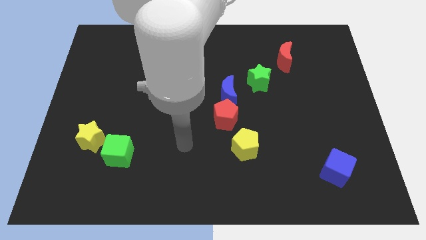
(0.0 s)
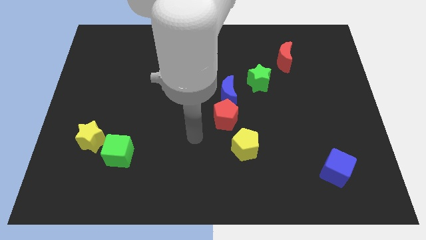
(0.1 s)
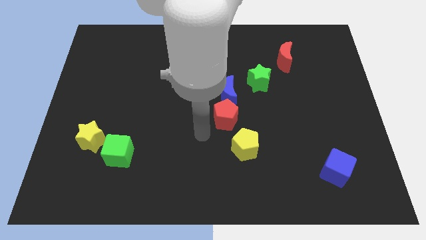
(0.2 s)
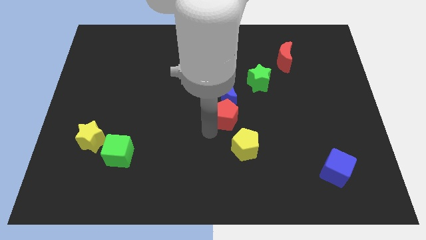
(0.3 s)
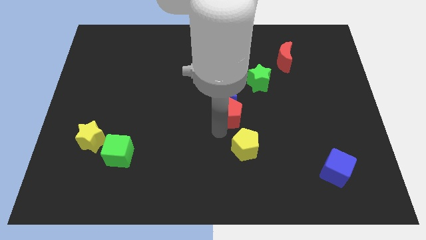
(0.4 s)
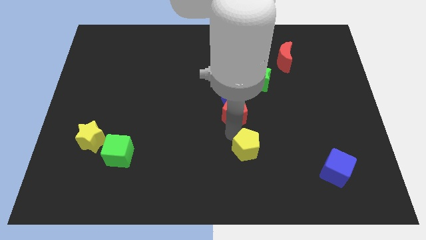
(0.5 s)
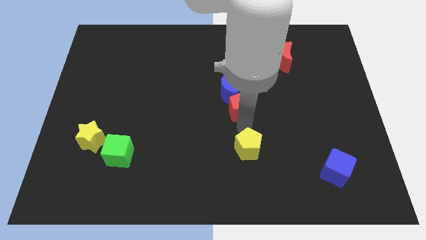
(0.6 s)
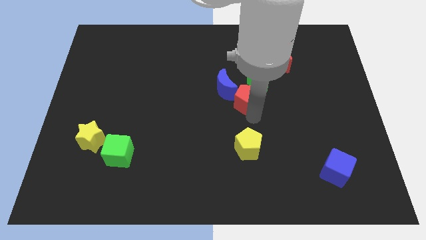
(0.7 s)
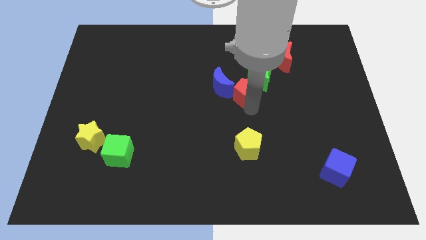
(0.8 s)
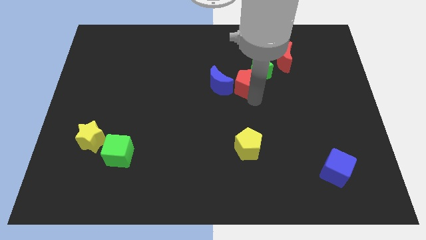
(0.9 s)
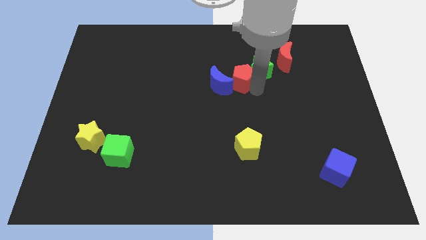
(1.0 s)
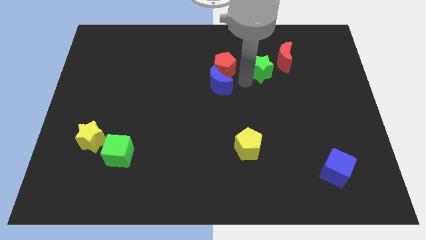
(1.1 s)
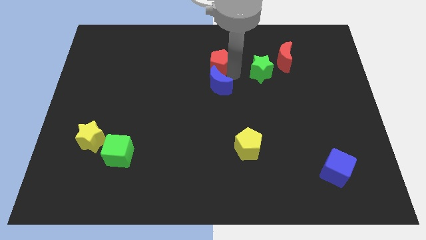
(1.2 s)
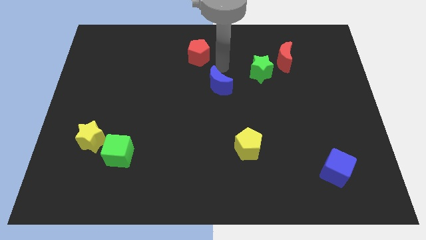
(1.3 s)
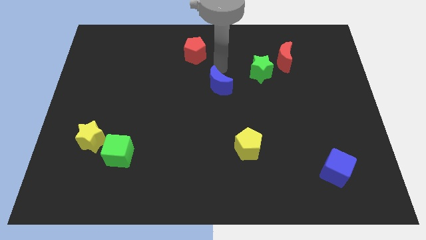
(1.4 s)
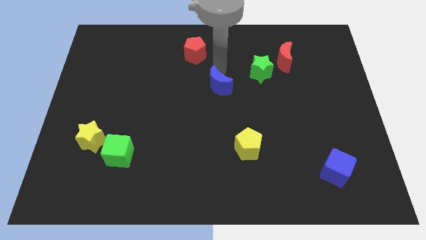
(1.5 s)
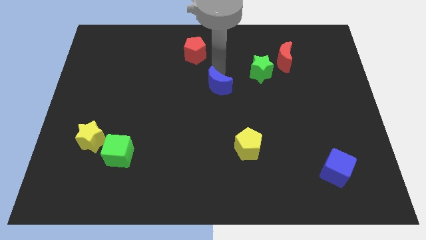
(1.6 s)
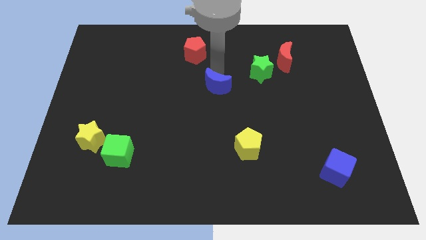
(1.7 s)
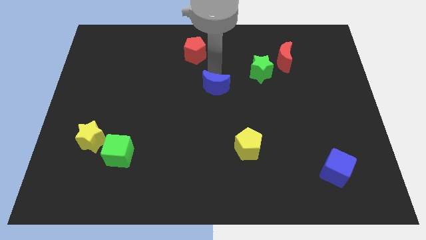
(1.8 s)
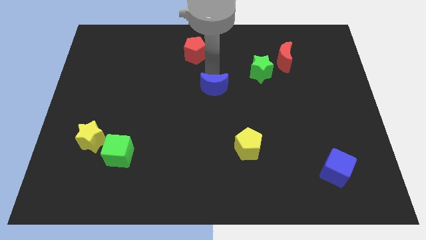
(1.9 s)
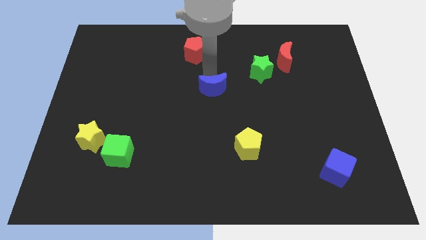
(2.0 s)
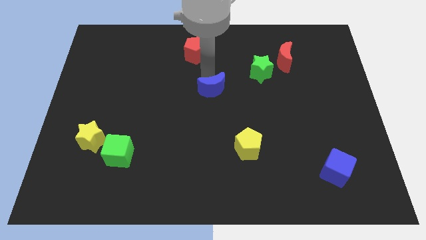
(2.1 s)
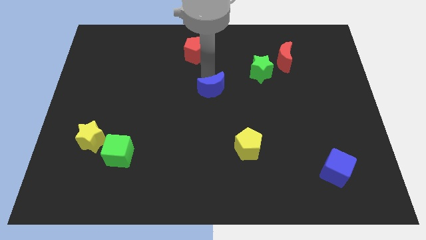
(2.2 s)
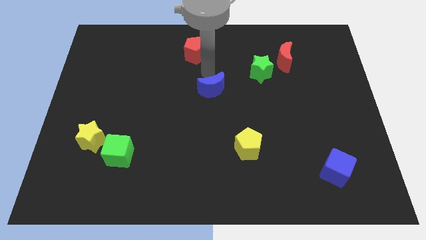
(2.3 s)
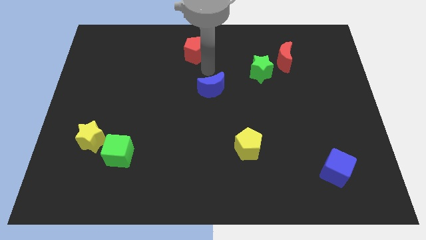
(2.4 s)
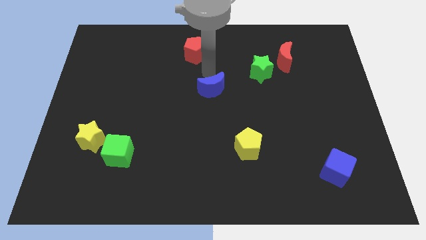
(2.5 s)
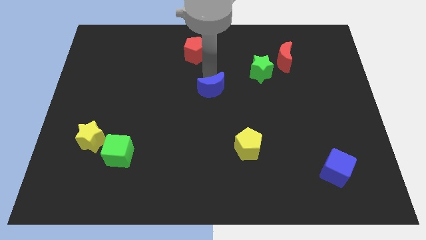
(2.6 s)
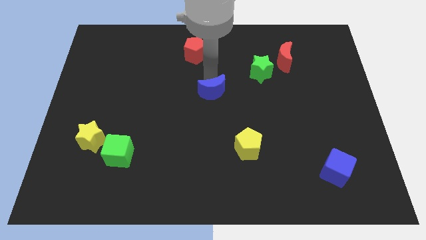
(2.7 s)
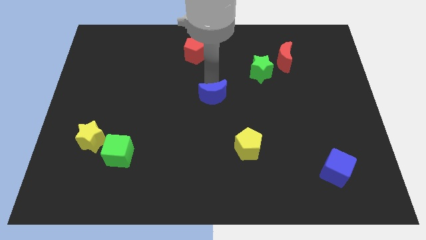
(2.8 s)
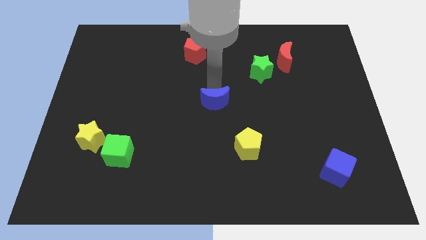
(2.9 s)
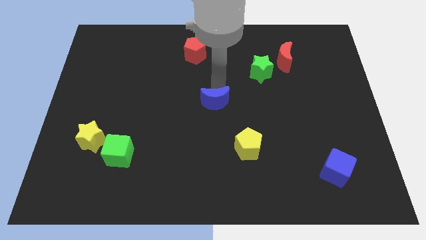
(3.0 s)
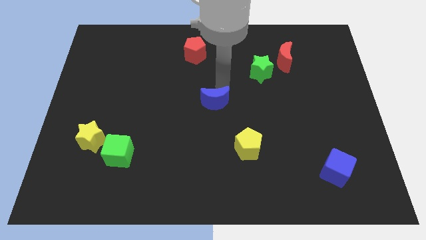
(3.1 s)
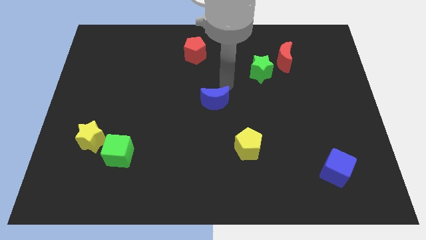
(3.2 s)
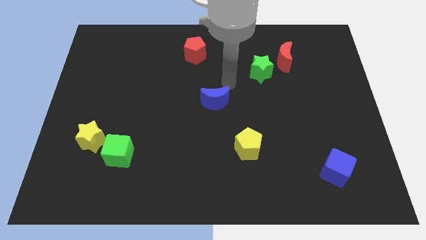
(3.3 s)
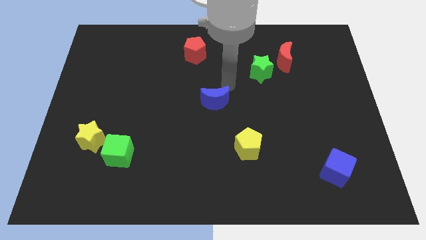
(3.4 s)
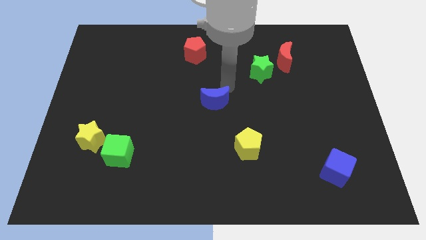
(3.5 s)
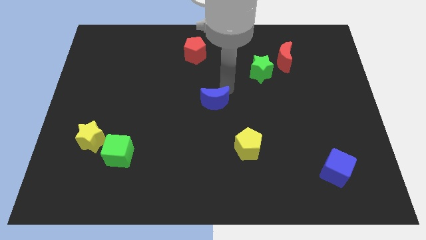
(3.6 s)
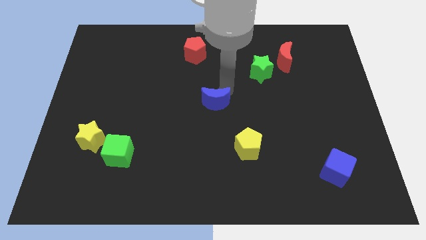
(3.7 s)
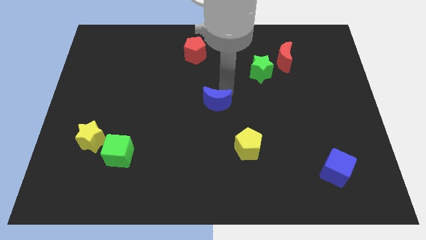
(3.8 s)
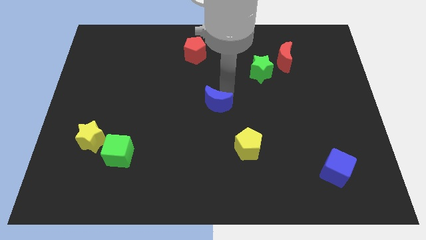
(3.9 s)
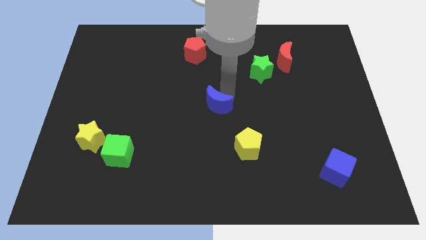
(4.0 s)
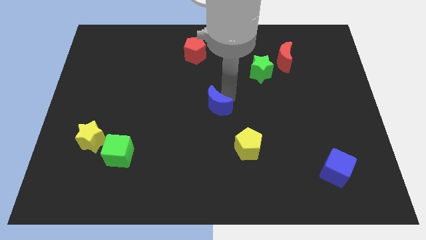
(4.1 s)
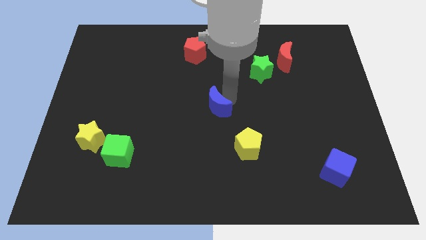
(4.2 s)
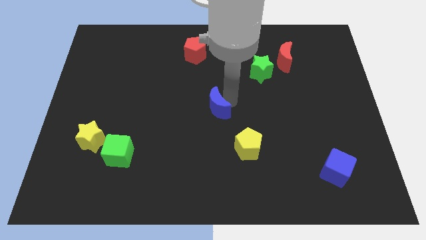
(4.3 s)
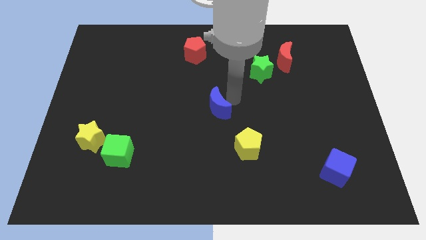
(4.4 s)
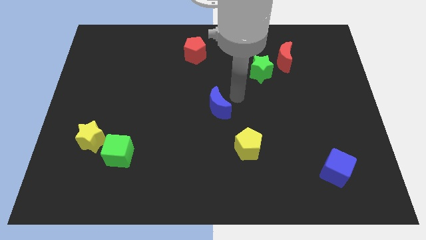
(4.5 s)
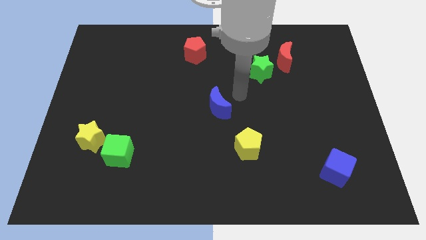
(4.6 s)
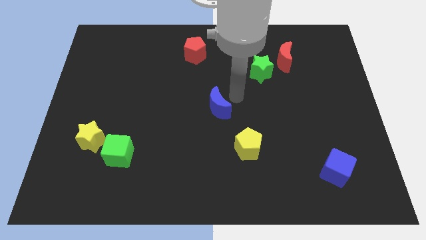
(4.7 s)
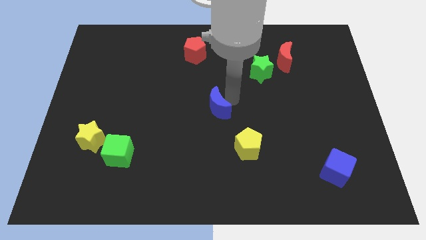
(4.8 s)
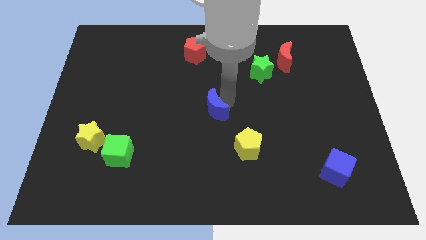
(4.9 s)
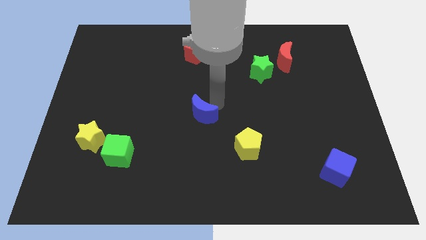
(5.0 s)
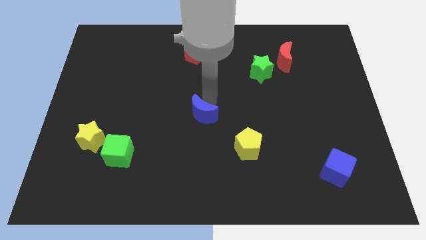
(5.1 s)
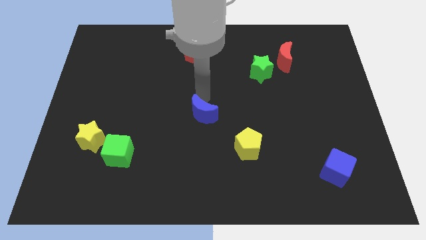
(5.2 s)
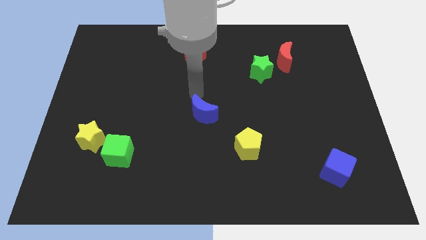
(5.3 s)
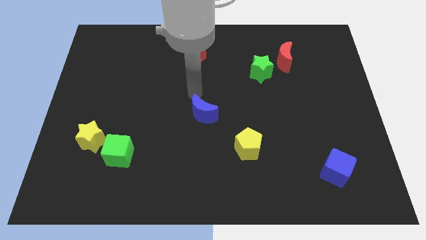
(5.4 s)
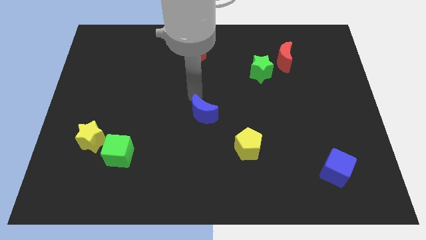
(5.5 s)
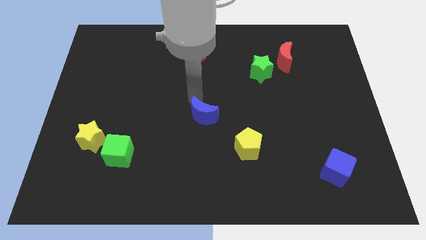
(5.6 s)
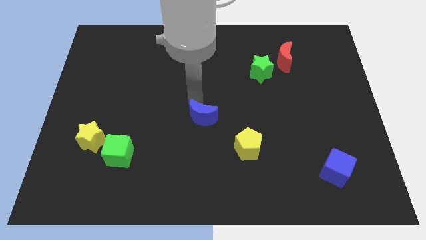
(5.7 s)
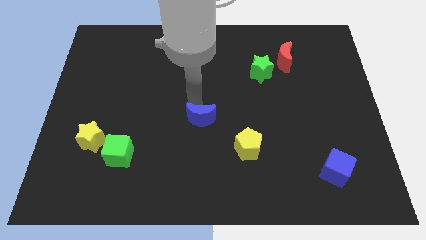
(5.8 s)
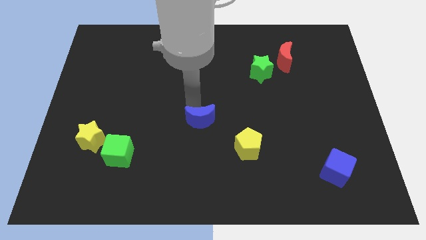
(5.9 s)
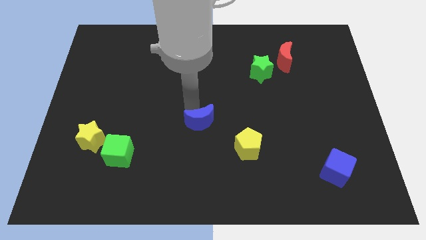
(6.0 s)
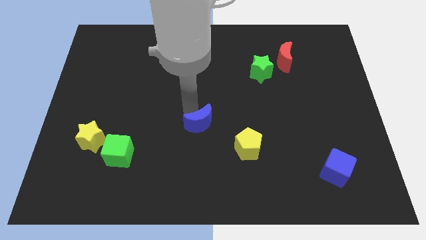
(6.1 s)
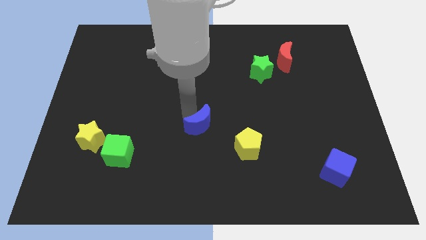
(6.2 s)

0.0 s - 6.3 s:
slightly slide the blue moon downwards

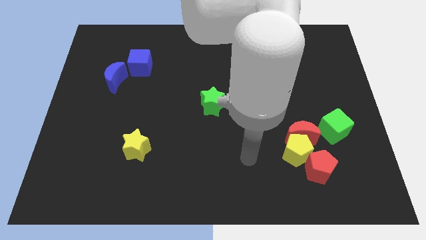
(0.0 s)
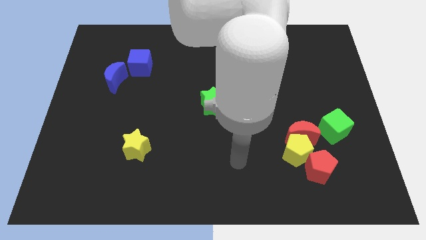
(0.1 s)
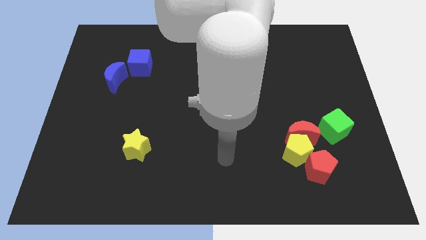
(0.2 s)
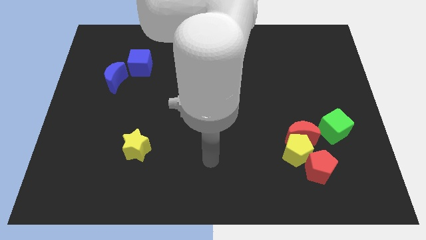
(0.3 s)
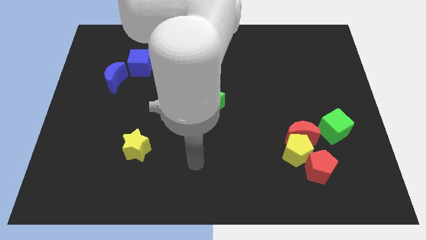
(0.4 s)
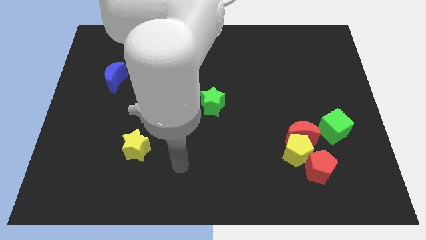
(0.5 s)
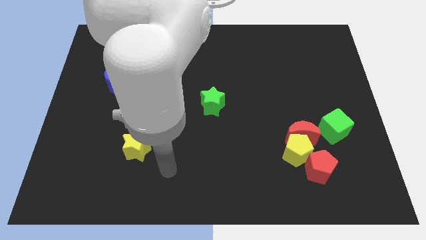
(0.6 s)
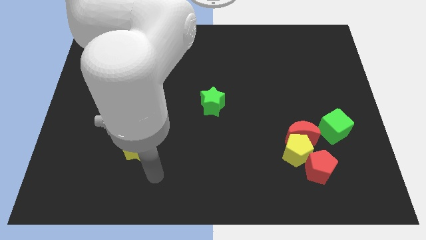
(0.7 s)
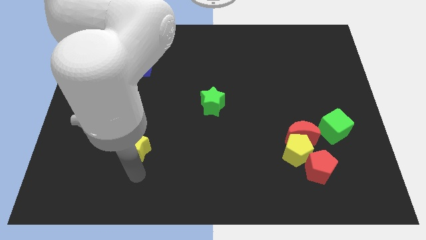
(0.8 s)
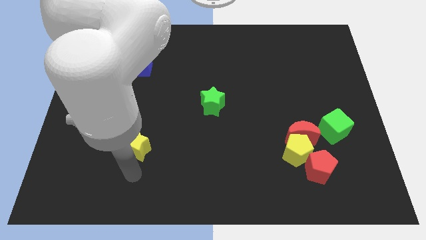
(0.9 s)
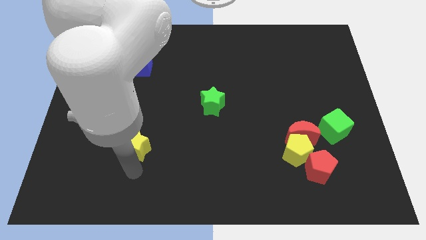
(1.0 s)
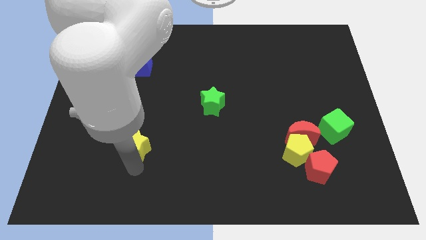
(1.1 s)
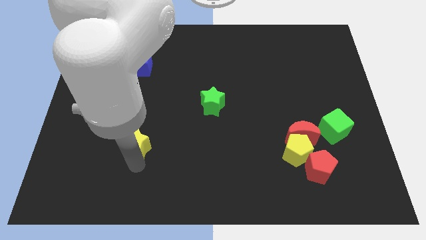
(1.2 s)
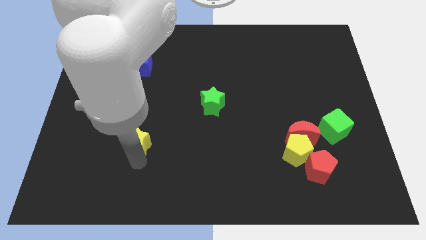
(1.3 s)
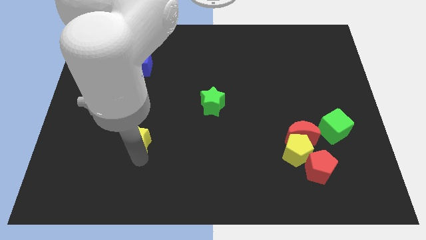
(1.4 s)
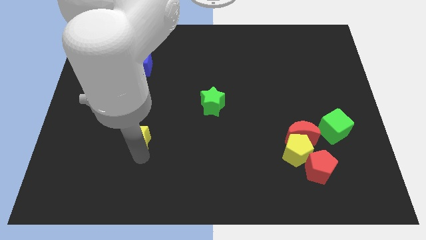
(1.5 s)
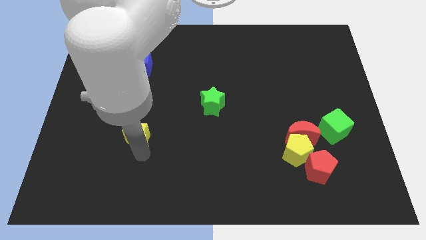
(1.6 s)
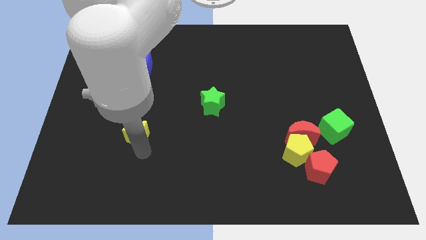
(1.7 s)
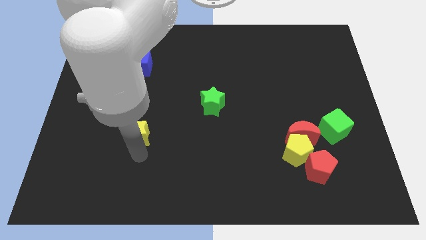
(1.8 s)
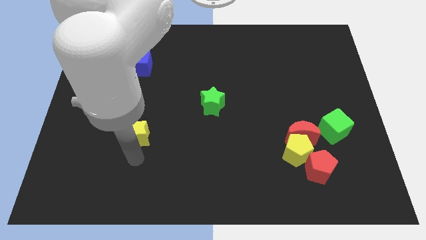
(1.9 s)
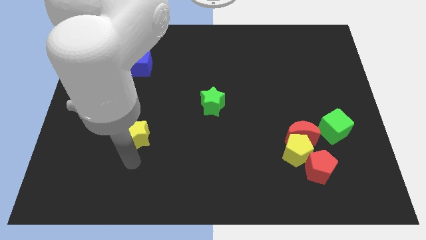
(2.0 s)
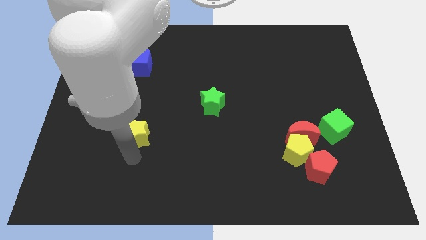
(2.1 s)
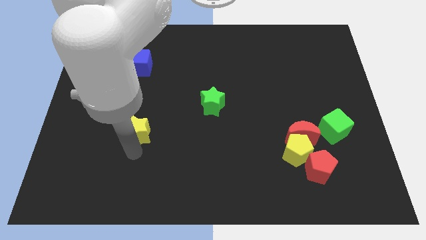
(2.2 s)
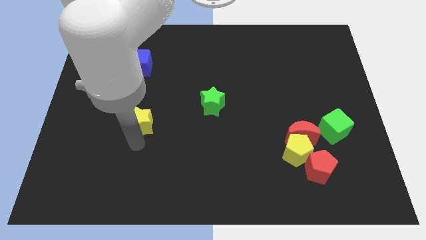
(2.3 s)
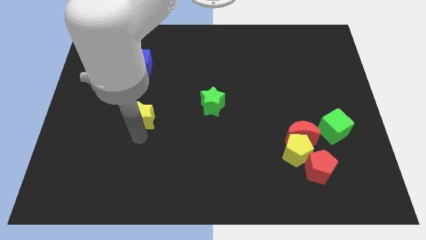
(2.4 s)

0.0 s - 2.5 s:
move the yellow star upwards a little
